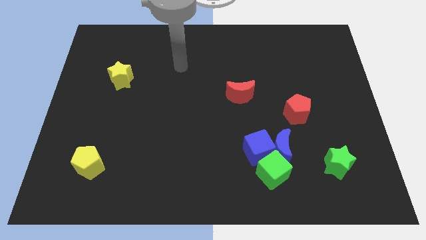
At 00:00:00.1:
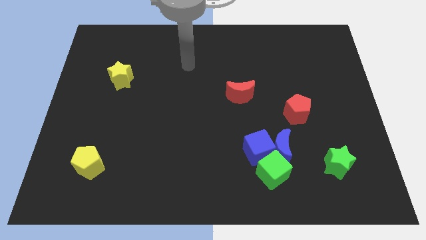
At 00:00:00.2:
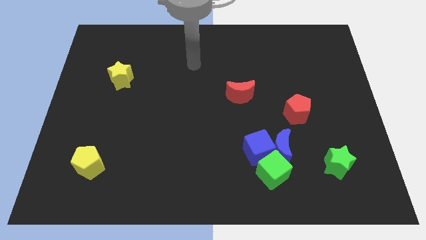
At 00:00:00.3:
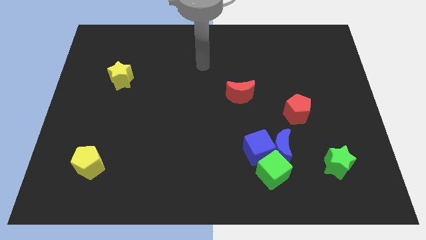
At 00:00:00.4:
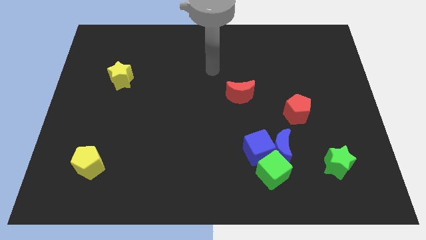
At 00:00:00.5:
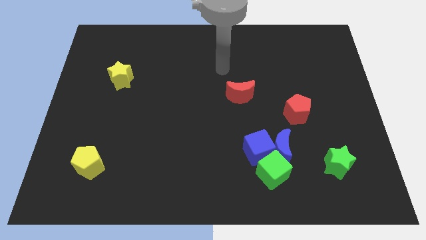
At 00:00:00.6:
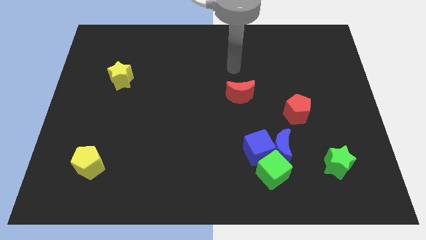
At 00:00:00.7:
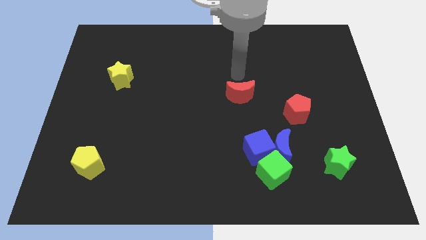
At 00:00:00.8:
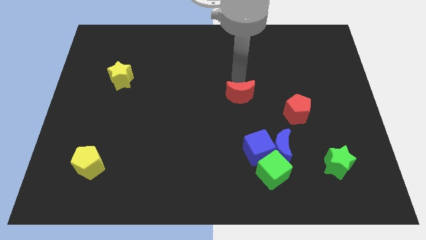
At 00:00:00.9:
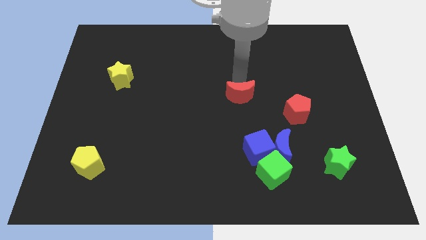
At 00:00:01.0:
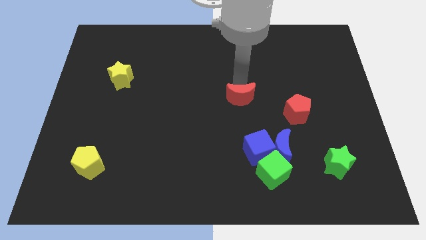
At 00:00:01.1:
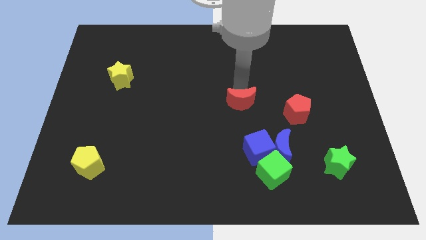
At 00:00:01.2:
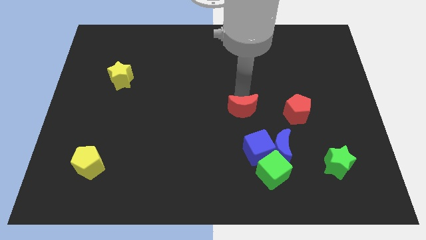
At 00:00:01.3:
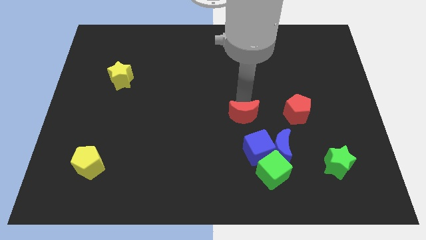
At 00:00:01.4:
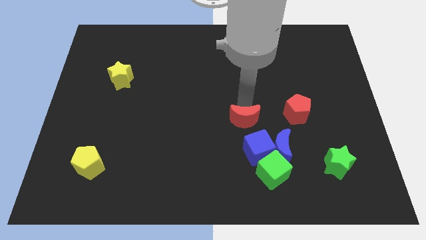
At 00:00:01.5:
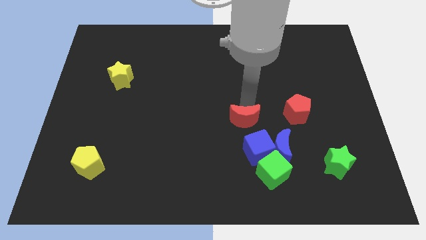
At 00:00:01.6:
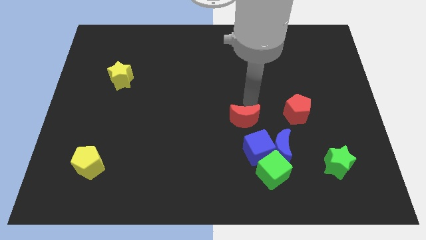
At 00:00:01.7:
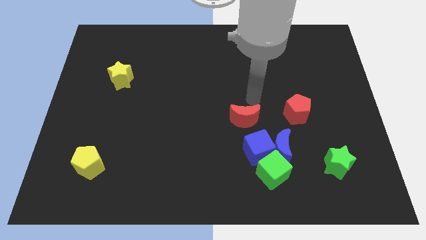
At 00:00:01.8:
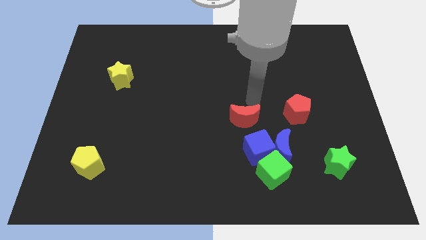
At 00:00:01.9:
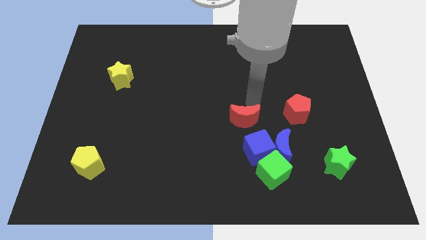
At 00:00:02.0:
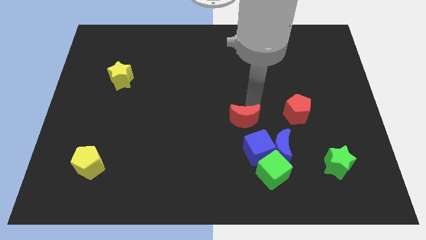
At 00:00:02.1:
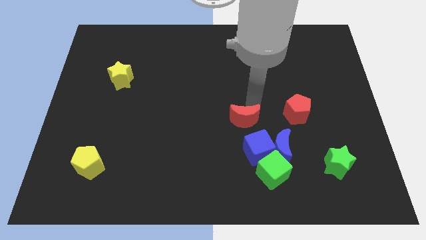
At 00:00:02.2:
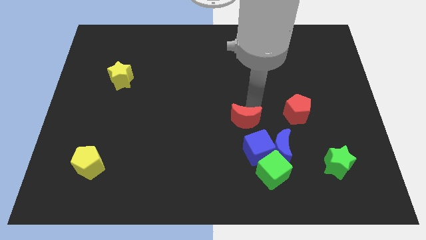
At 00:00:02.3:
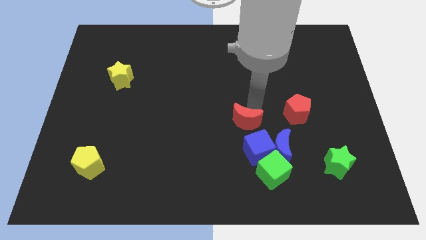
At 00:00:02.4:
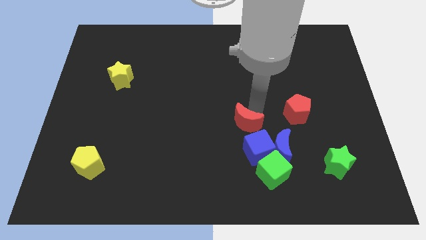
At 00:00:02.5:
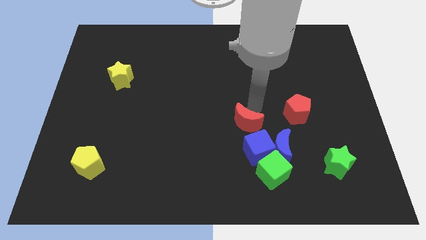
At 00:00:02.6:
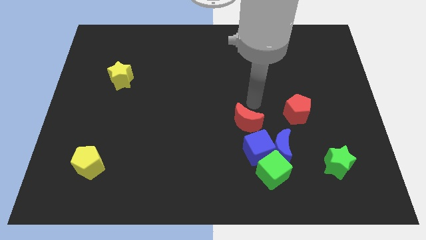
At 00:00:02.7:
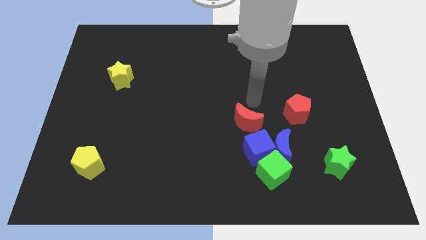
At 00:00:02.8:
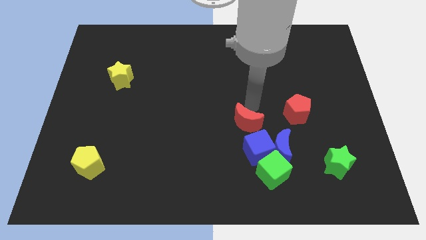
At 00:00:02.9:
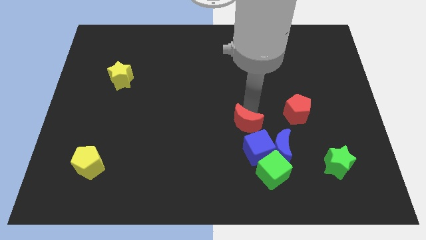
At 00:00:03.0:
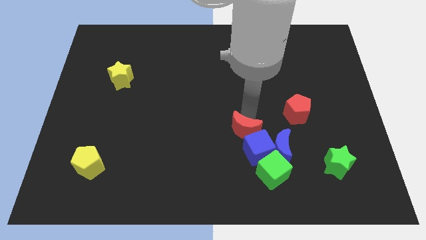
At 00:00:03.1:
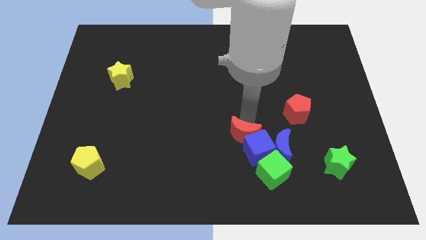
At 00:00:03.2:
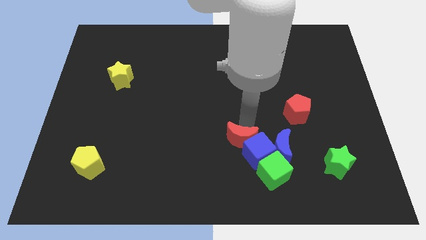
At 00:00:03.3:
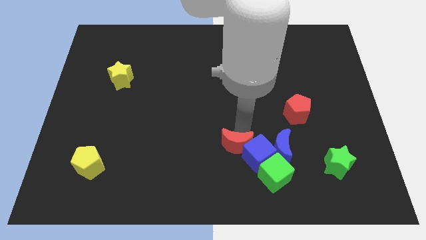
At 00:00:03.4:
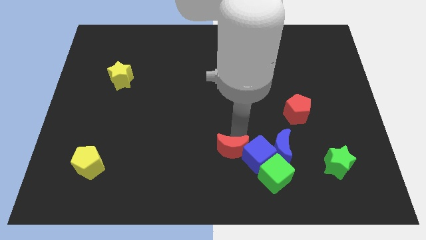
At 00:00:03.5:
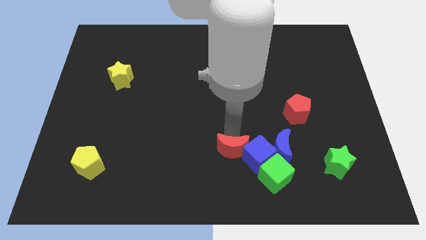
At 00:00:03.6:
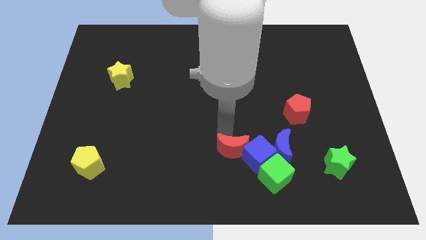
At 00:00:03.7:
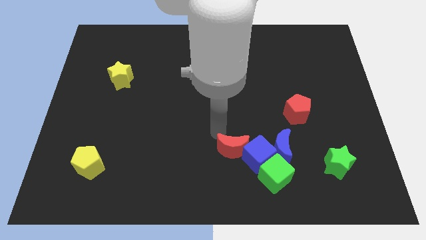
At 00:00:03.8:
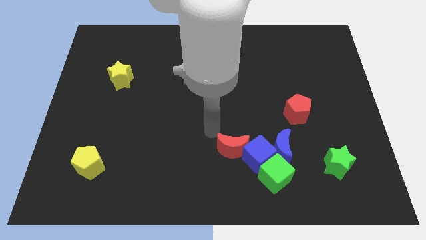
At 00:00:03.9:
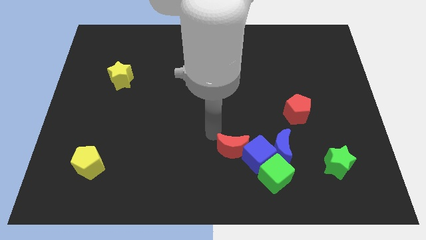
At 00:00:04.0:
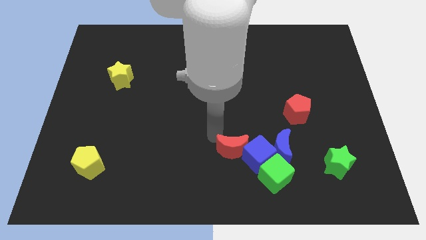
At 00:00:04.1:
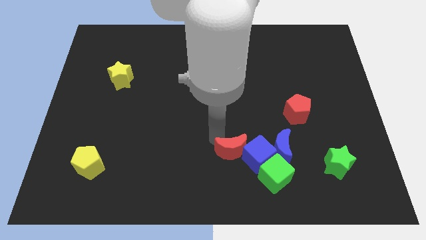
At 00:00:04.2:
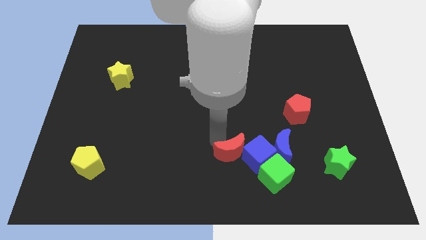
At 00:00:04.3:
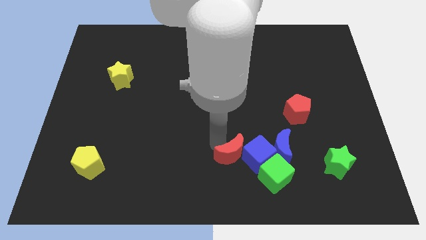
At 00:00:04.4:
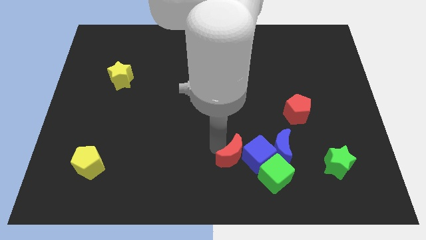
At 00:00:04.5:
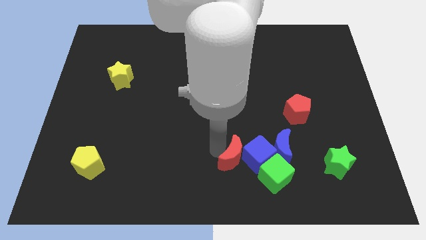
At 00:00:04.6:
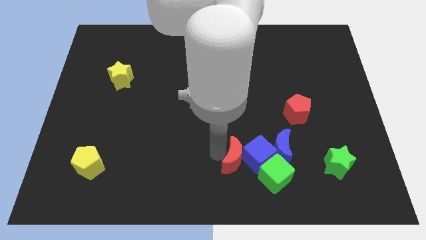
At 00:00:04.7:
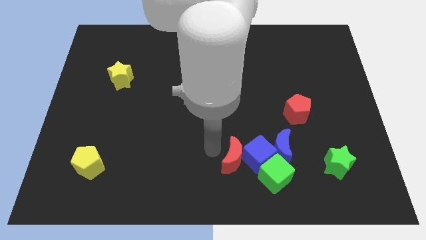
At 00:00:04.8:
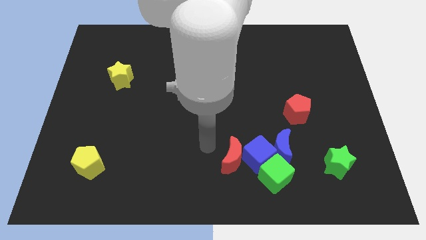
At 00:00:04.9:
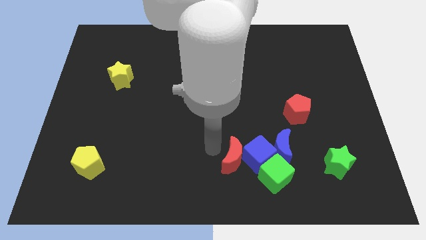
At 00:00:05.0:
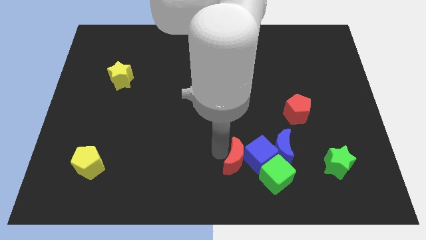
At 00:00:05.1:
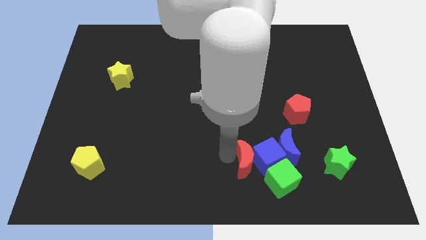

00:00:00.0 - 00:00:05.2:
put the red moon to the bottom left of the blue moon

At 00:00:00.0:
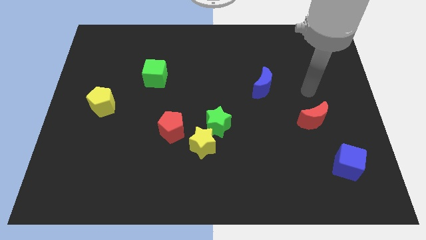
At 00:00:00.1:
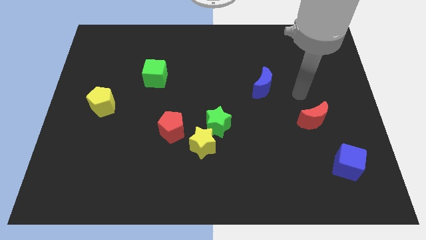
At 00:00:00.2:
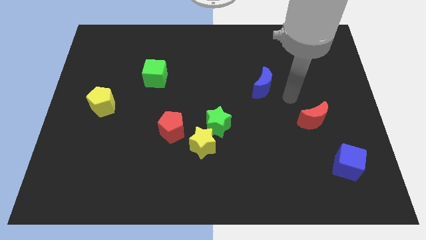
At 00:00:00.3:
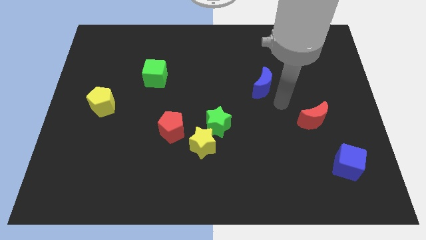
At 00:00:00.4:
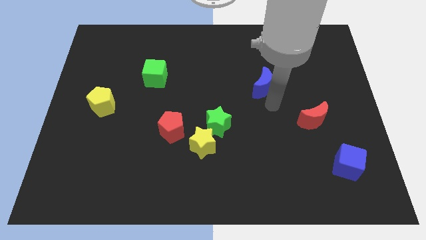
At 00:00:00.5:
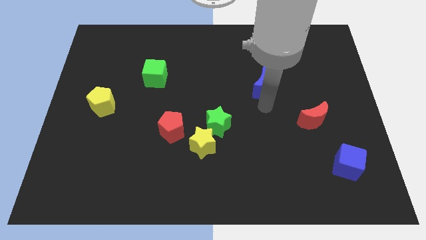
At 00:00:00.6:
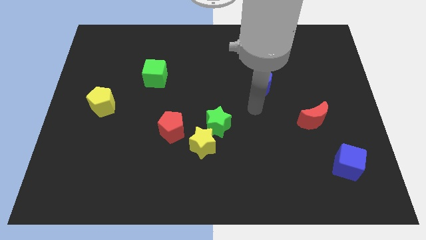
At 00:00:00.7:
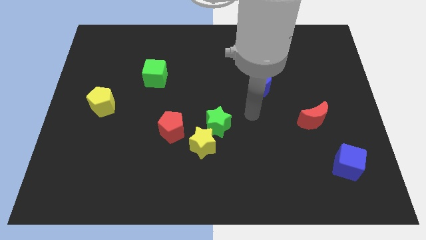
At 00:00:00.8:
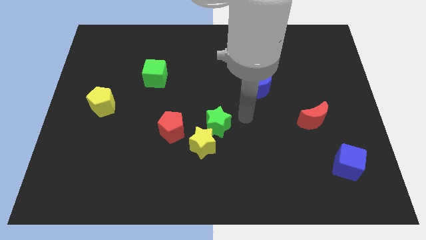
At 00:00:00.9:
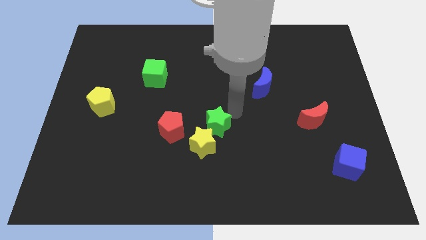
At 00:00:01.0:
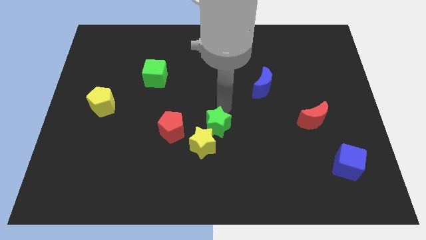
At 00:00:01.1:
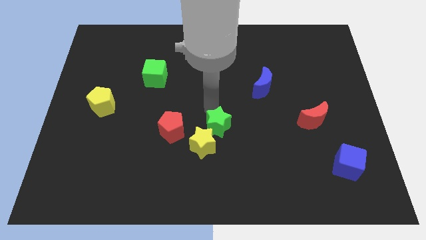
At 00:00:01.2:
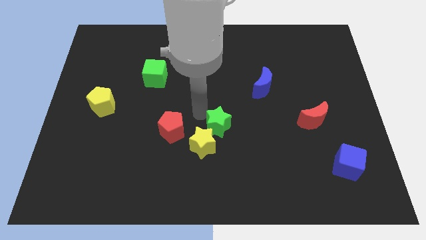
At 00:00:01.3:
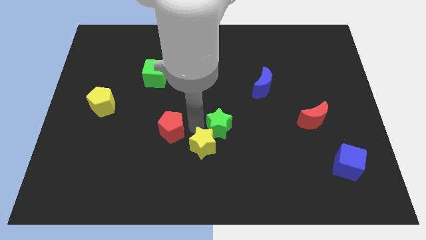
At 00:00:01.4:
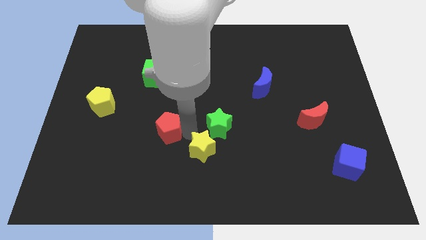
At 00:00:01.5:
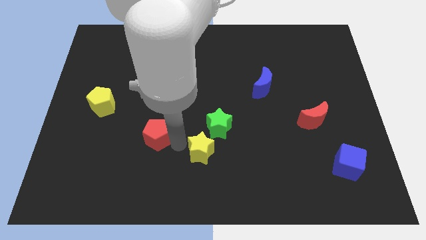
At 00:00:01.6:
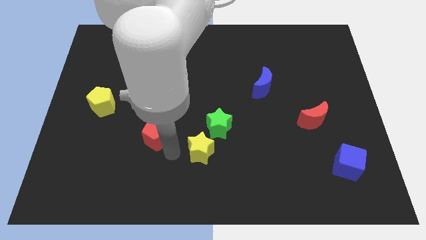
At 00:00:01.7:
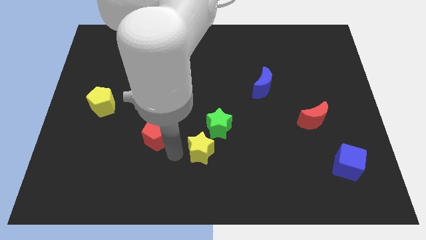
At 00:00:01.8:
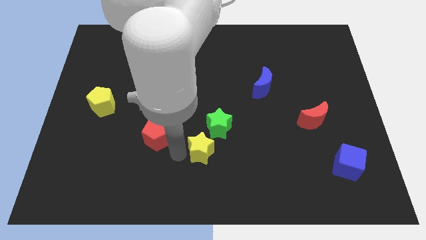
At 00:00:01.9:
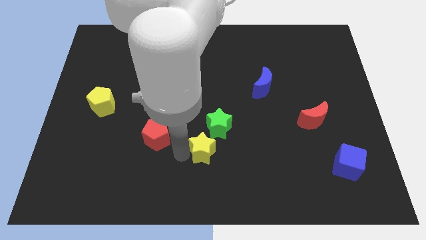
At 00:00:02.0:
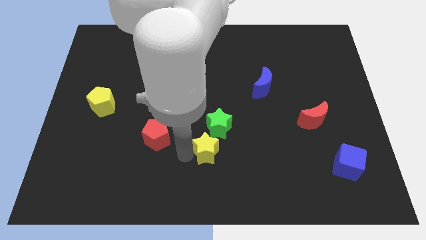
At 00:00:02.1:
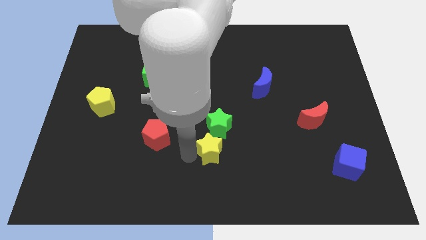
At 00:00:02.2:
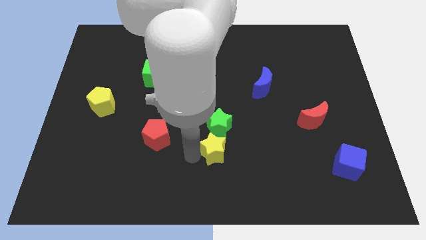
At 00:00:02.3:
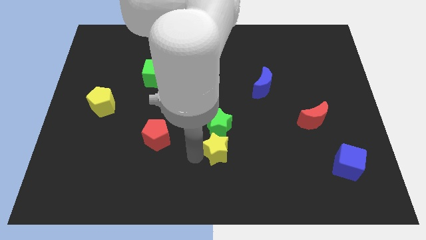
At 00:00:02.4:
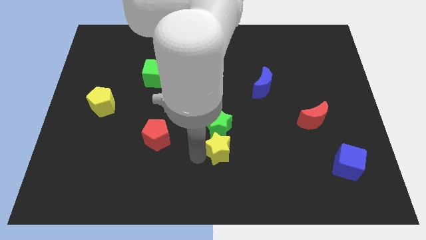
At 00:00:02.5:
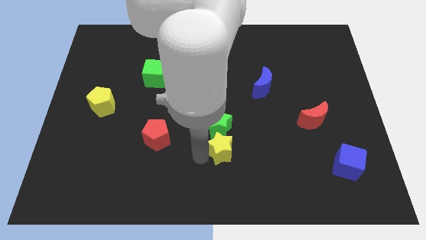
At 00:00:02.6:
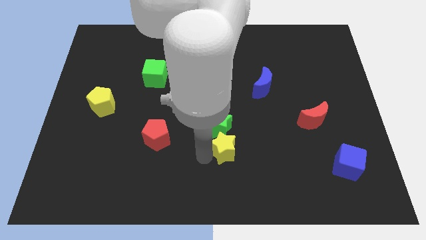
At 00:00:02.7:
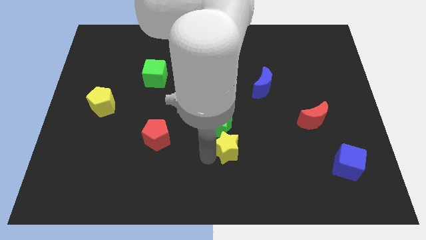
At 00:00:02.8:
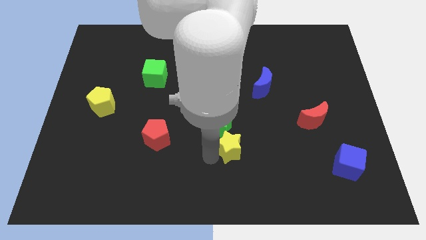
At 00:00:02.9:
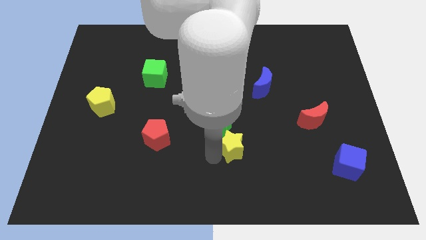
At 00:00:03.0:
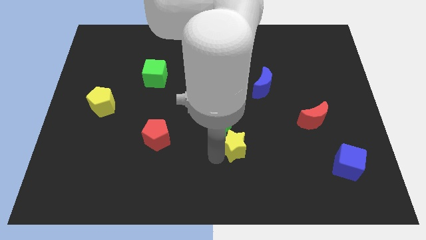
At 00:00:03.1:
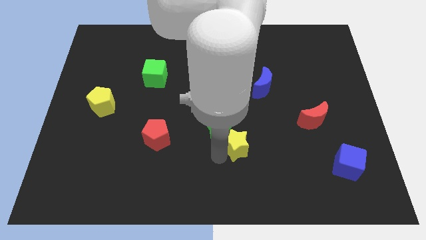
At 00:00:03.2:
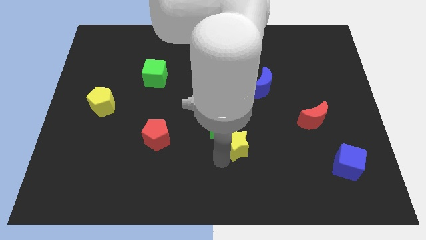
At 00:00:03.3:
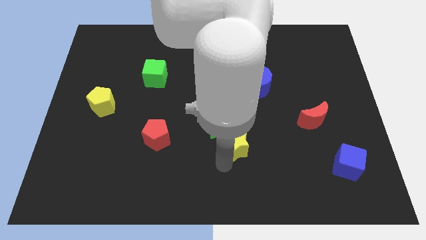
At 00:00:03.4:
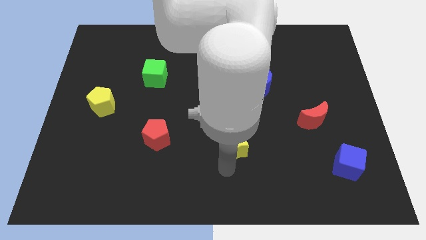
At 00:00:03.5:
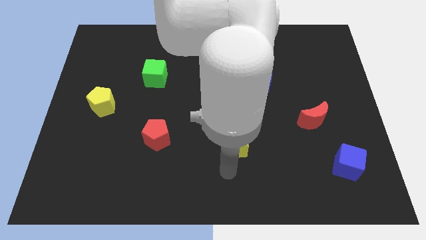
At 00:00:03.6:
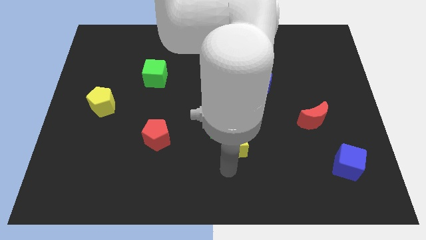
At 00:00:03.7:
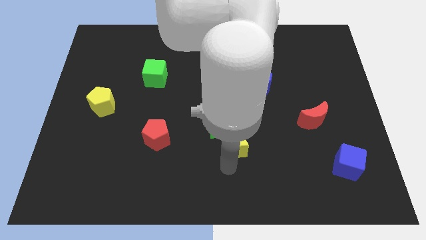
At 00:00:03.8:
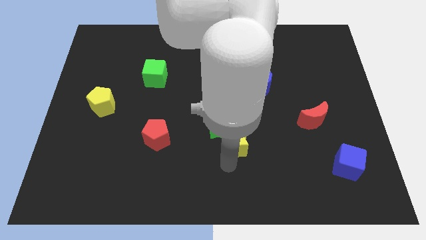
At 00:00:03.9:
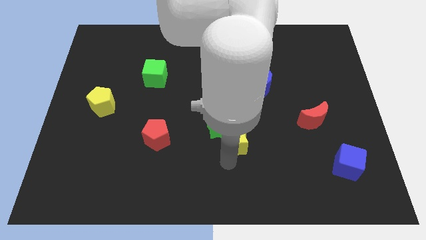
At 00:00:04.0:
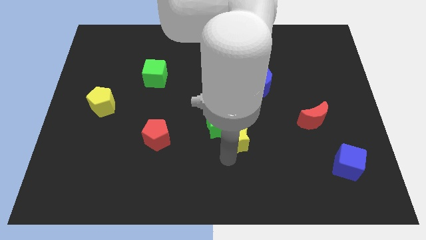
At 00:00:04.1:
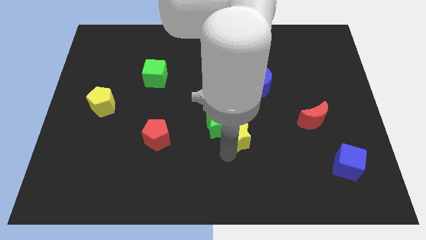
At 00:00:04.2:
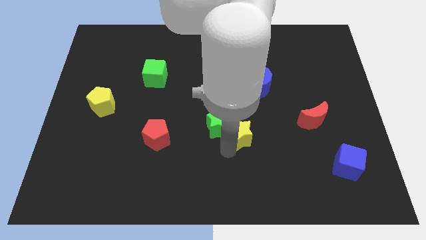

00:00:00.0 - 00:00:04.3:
slide the yellow star to the top right of the green star
